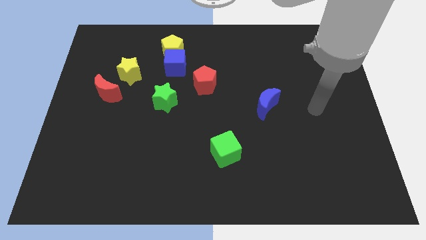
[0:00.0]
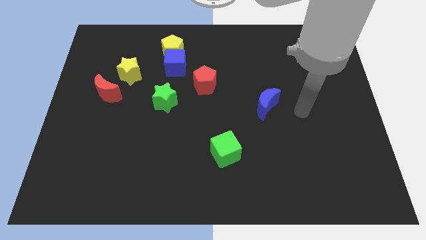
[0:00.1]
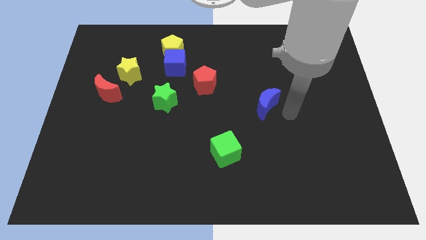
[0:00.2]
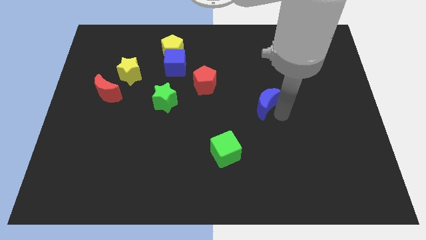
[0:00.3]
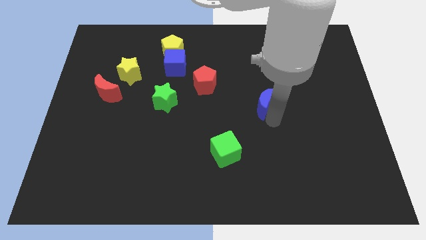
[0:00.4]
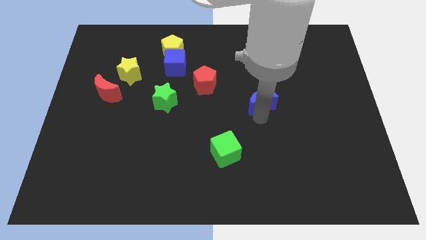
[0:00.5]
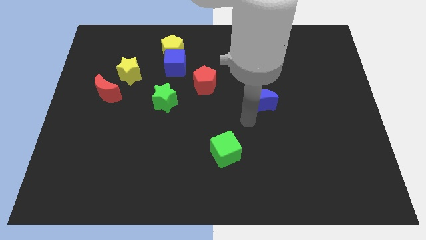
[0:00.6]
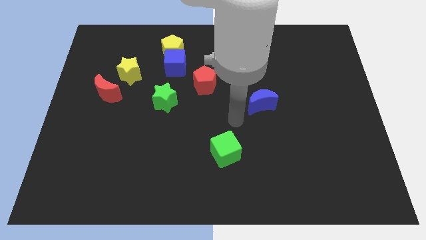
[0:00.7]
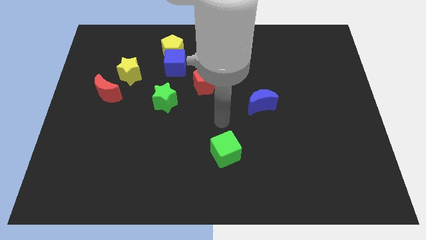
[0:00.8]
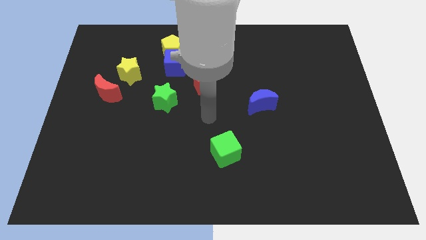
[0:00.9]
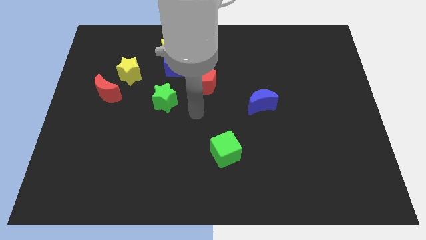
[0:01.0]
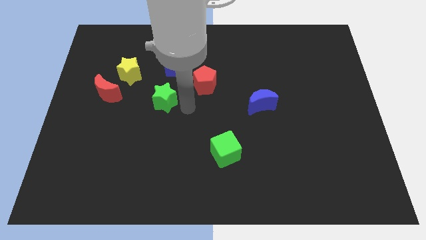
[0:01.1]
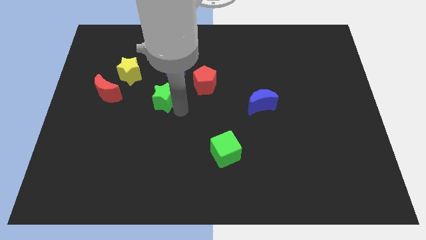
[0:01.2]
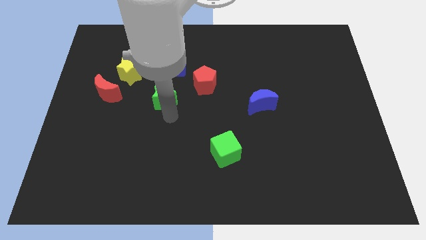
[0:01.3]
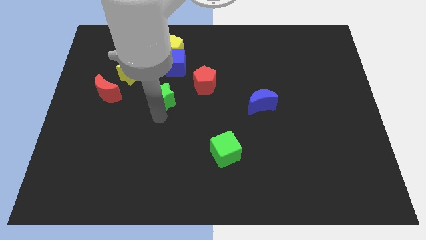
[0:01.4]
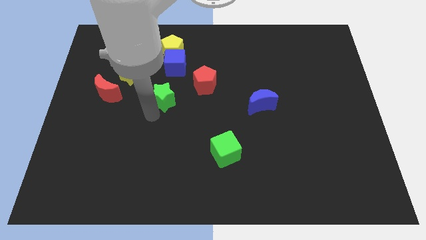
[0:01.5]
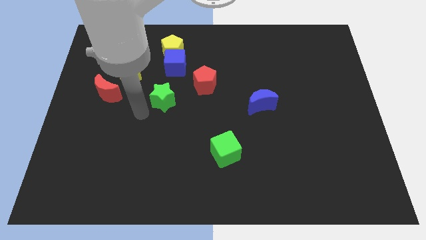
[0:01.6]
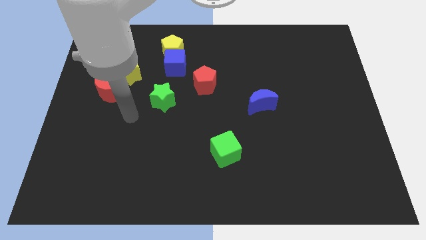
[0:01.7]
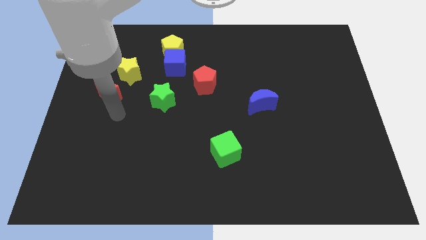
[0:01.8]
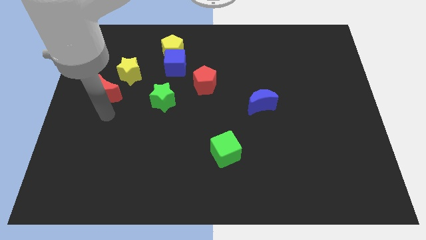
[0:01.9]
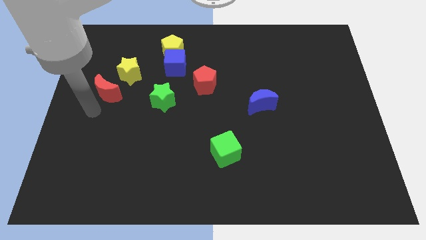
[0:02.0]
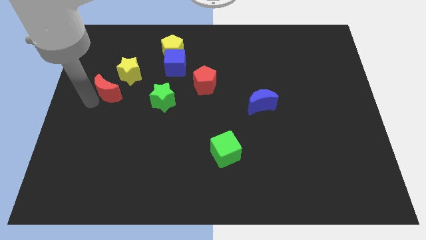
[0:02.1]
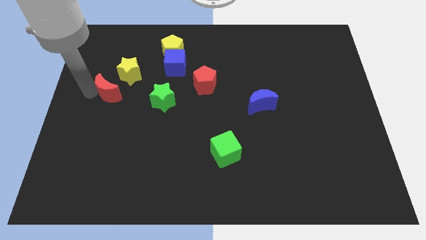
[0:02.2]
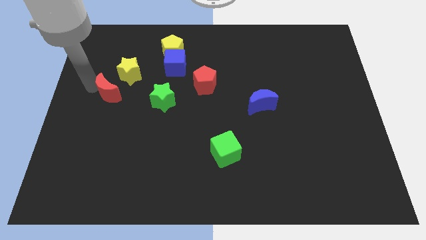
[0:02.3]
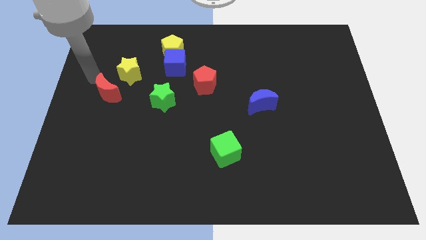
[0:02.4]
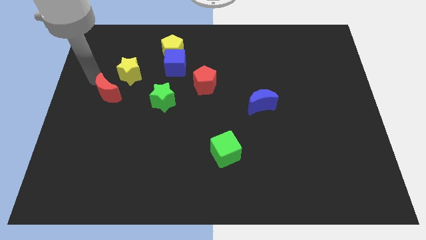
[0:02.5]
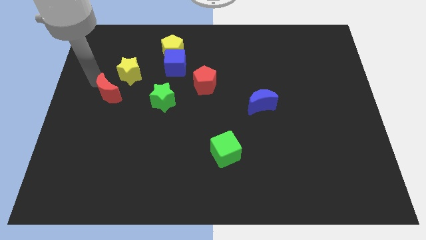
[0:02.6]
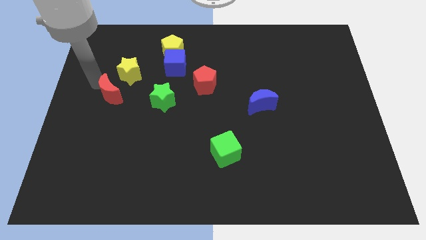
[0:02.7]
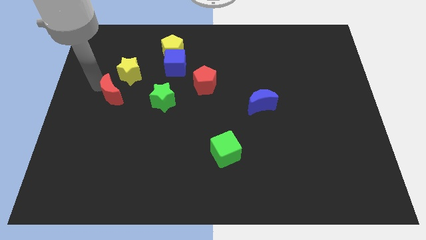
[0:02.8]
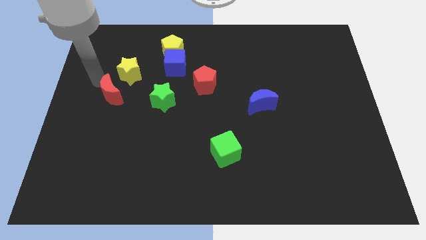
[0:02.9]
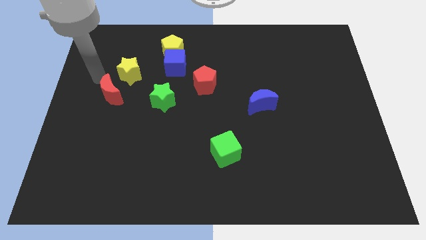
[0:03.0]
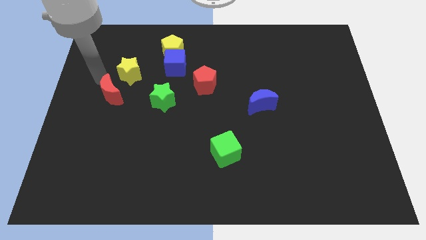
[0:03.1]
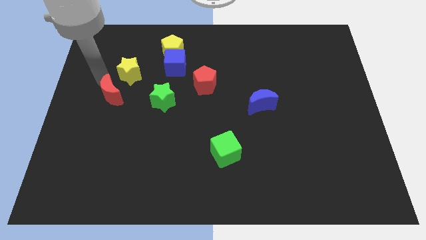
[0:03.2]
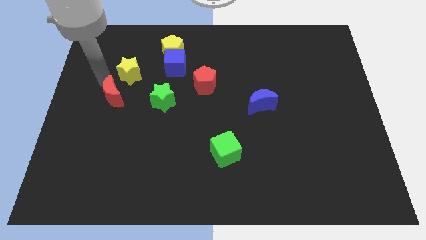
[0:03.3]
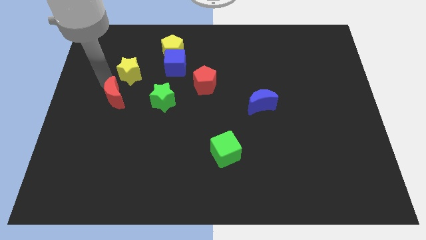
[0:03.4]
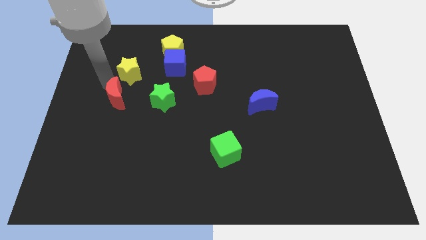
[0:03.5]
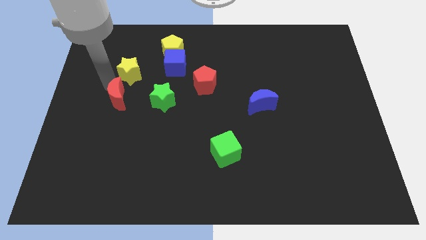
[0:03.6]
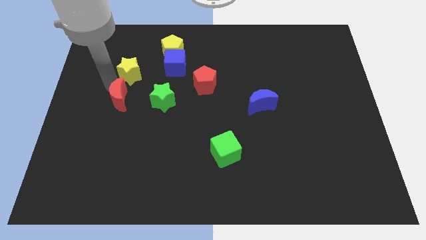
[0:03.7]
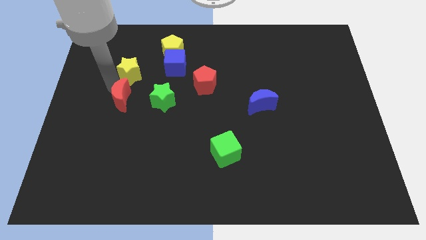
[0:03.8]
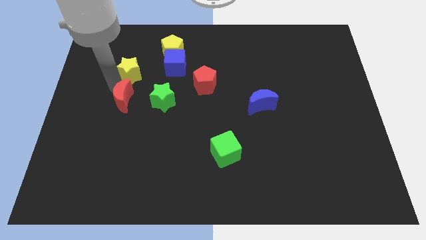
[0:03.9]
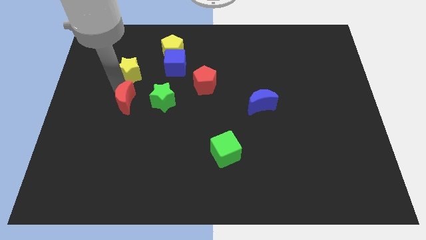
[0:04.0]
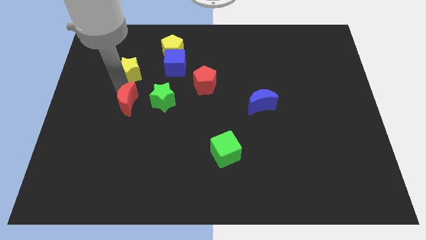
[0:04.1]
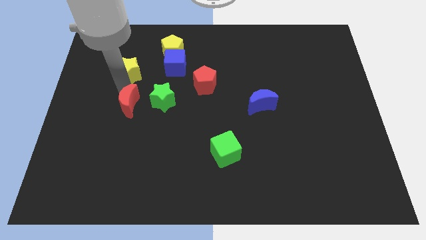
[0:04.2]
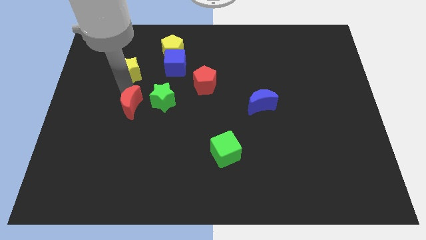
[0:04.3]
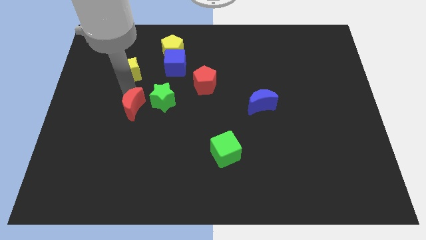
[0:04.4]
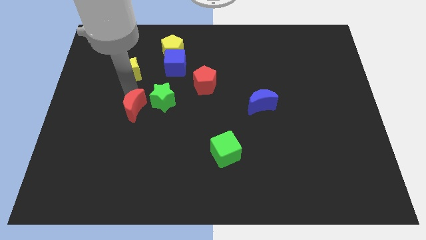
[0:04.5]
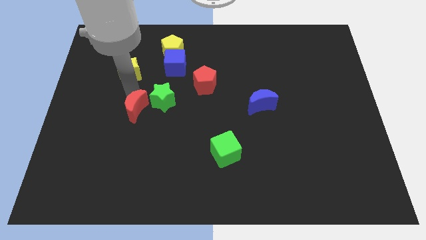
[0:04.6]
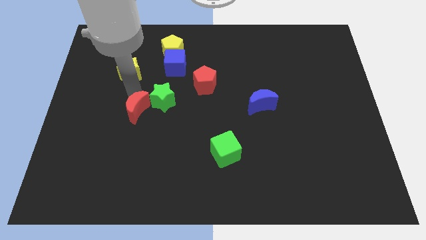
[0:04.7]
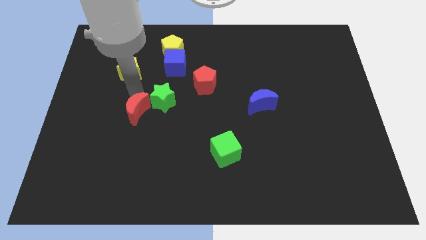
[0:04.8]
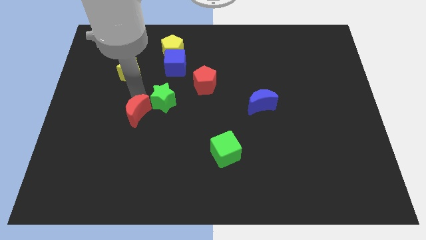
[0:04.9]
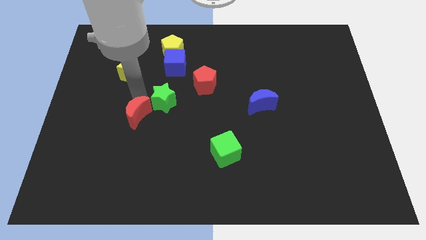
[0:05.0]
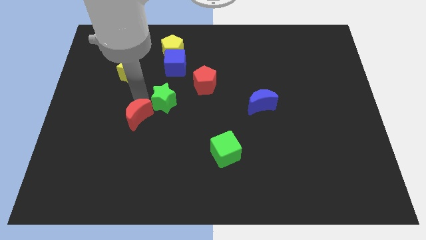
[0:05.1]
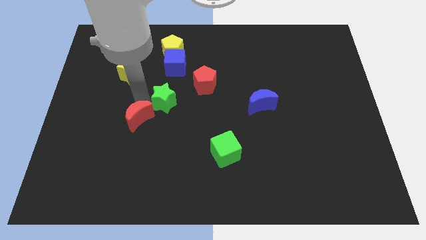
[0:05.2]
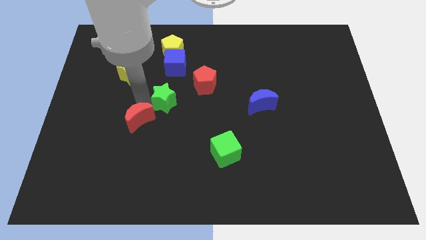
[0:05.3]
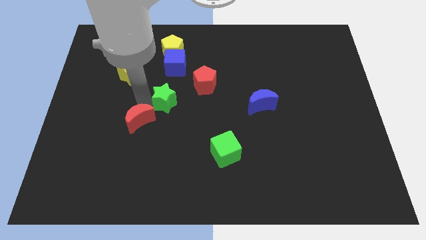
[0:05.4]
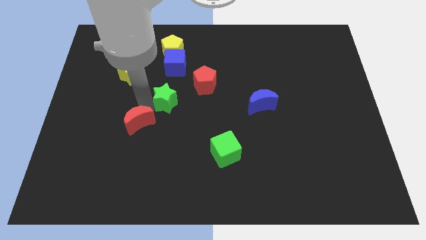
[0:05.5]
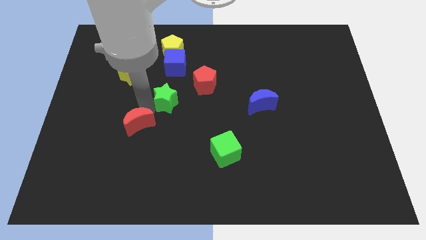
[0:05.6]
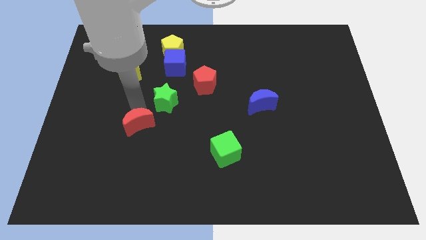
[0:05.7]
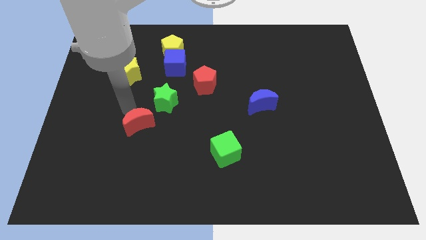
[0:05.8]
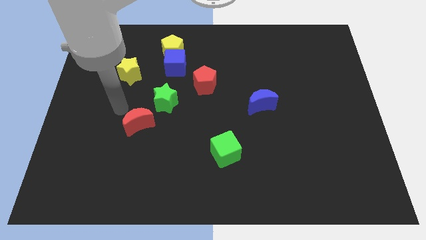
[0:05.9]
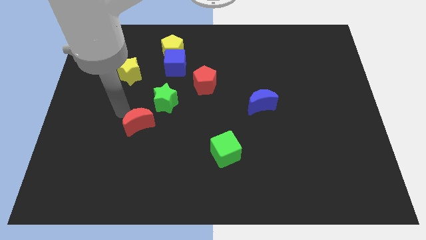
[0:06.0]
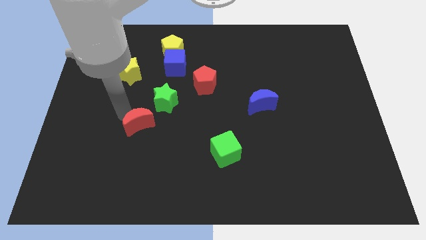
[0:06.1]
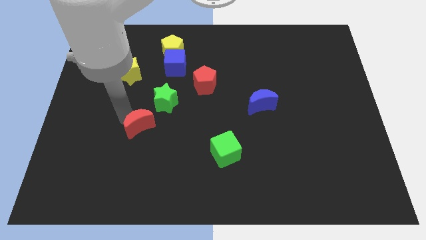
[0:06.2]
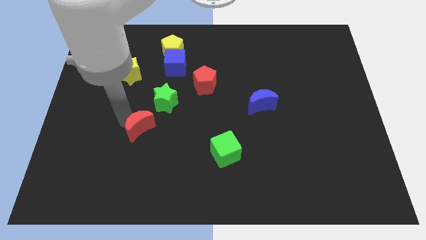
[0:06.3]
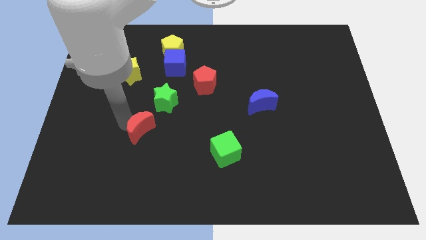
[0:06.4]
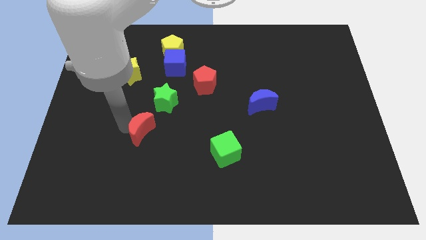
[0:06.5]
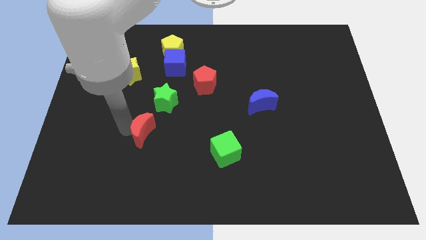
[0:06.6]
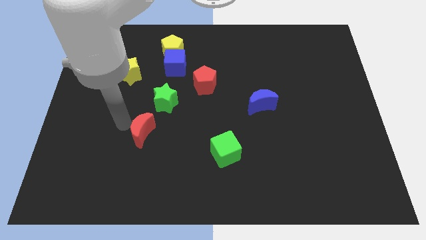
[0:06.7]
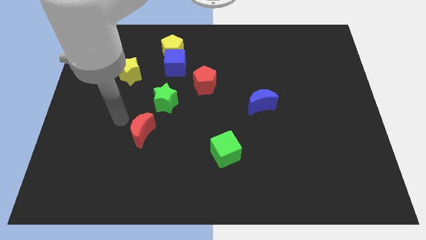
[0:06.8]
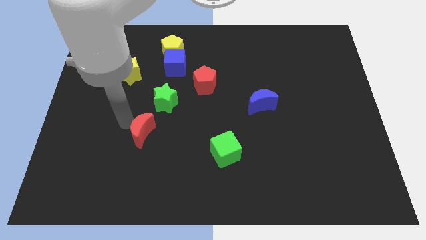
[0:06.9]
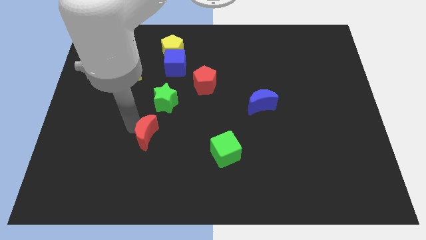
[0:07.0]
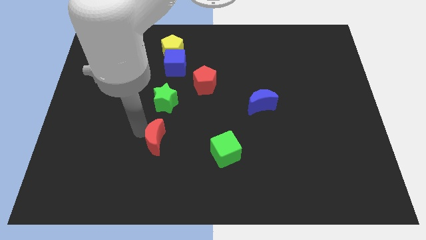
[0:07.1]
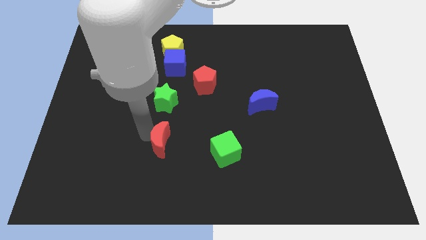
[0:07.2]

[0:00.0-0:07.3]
move the red moon just left of the green cube

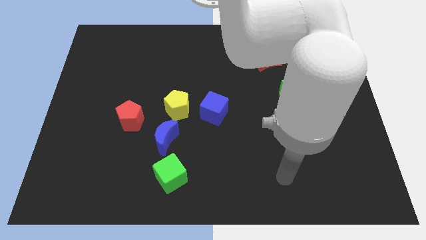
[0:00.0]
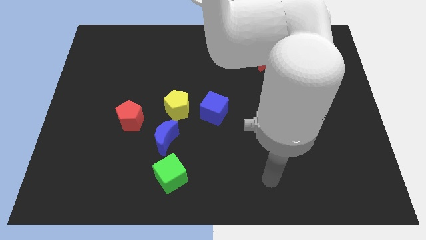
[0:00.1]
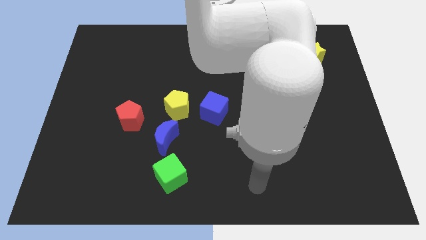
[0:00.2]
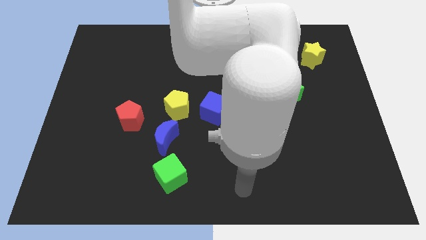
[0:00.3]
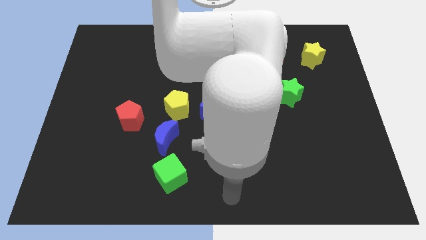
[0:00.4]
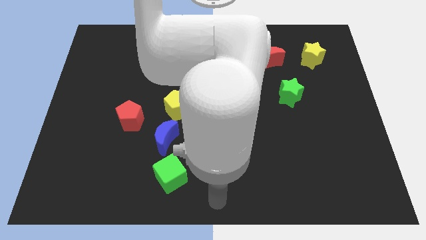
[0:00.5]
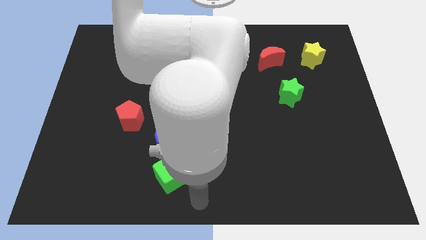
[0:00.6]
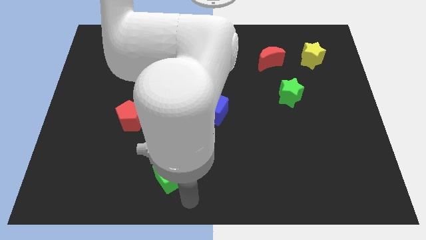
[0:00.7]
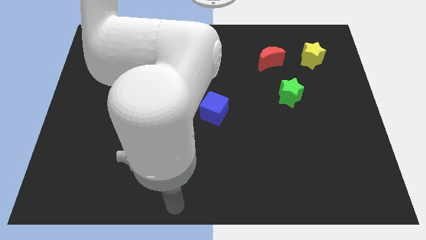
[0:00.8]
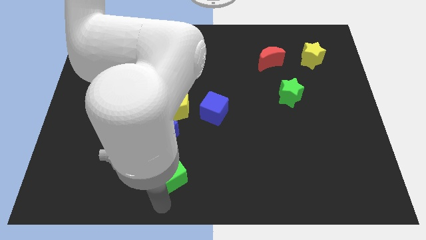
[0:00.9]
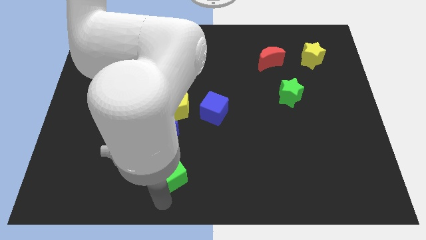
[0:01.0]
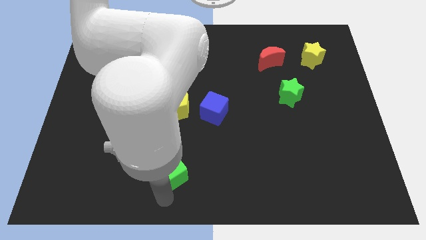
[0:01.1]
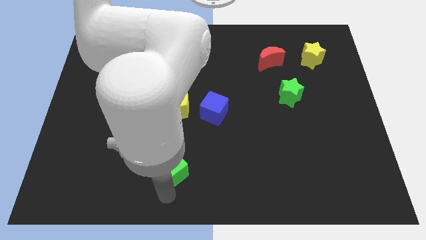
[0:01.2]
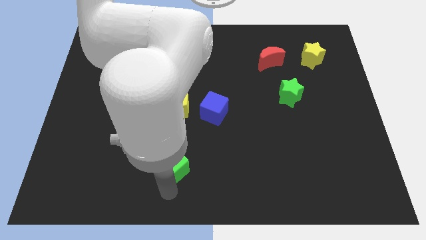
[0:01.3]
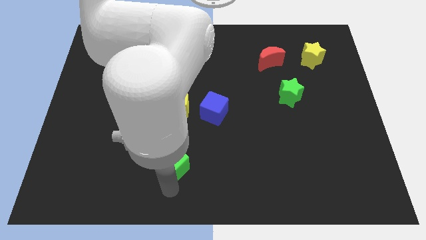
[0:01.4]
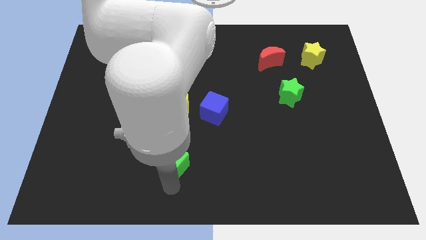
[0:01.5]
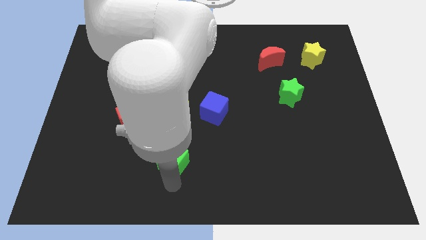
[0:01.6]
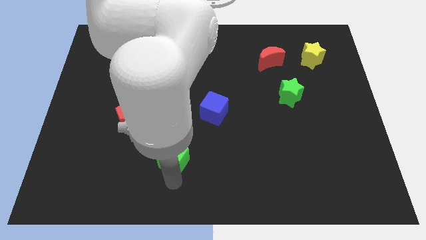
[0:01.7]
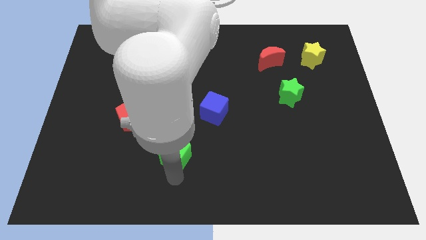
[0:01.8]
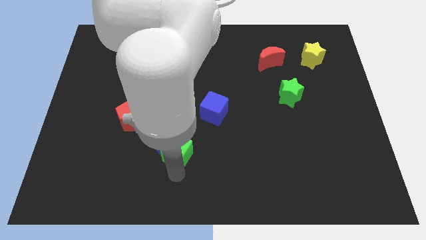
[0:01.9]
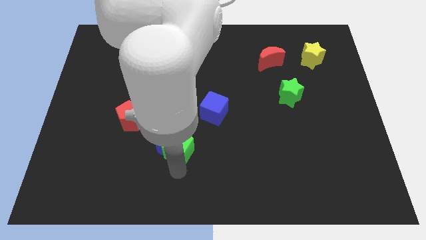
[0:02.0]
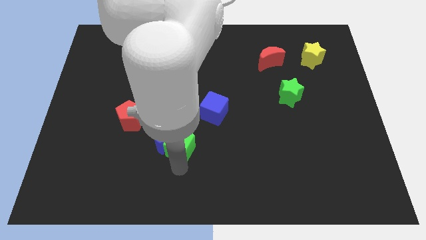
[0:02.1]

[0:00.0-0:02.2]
slide the green cube diagonally down and to the left of the blue cube
